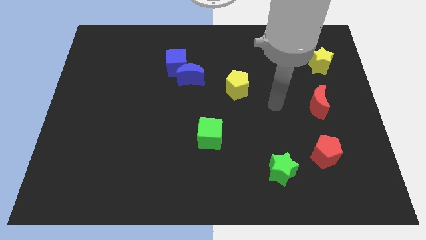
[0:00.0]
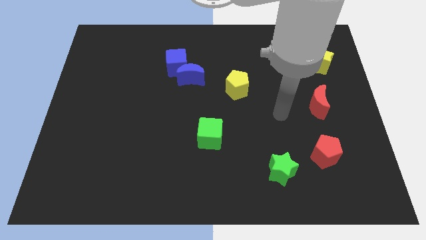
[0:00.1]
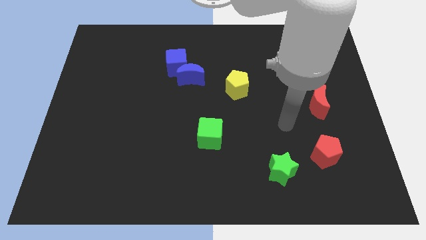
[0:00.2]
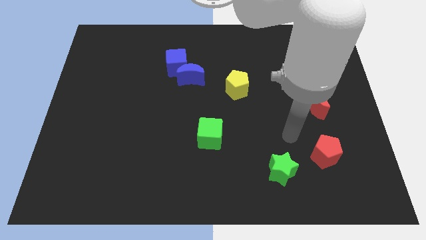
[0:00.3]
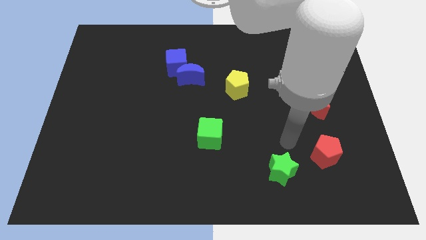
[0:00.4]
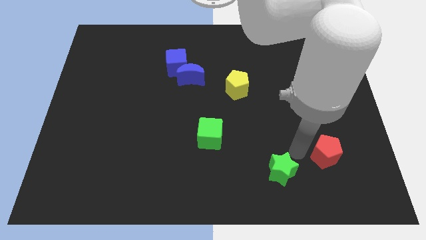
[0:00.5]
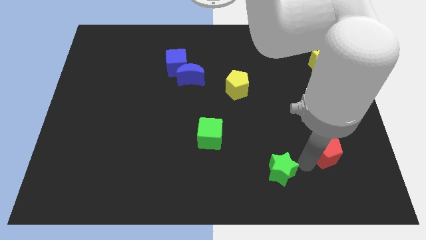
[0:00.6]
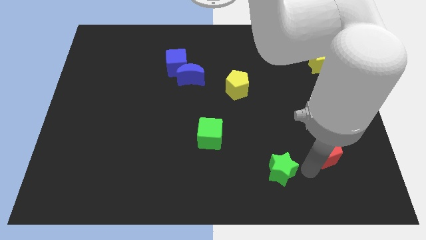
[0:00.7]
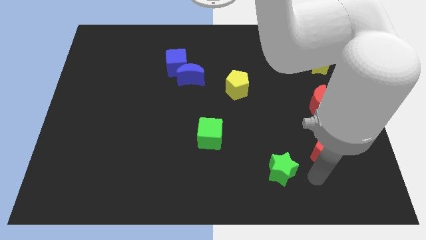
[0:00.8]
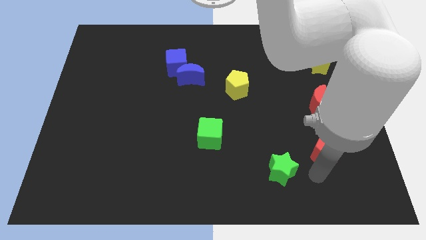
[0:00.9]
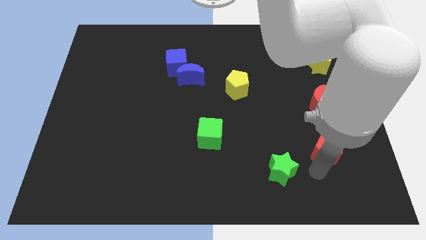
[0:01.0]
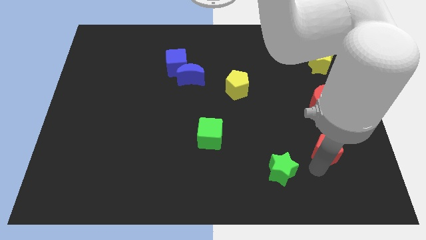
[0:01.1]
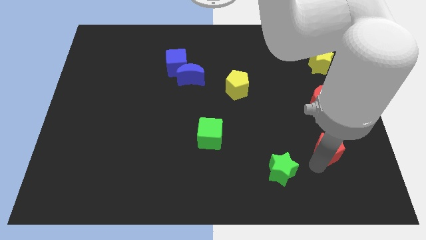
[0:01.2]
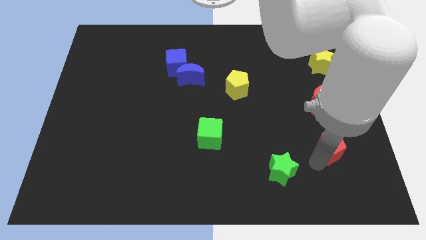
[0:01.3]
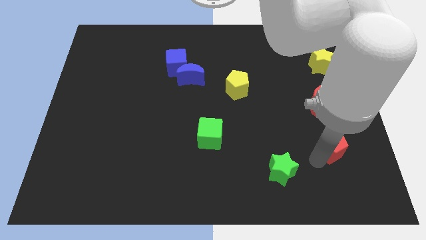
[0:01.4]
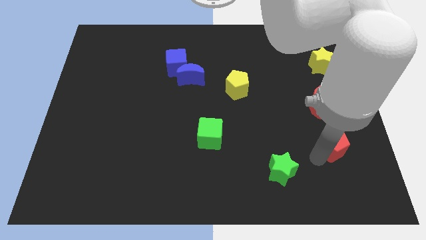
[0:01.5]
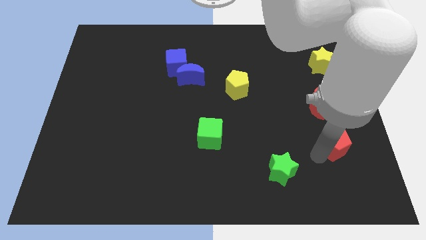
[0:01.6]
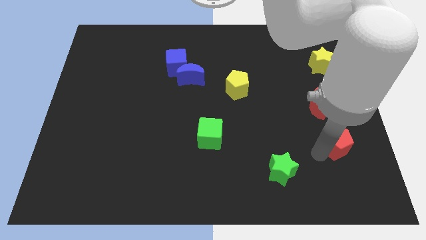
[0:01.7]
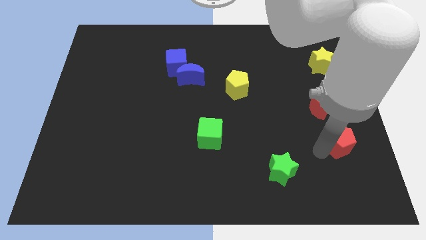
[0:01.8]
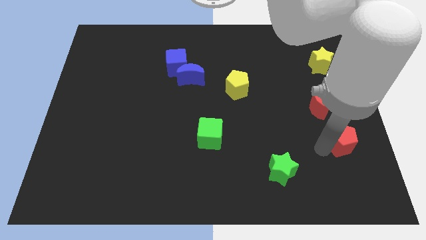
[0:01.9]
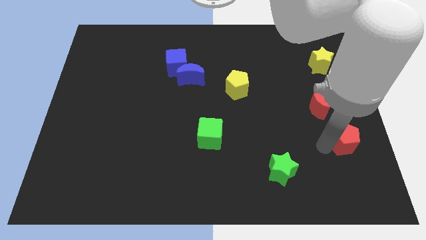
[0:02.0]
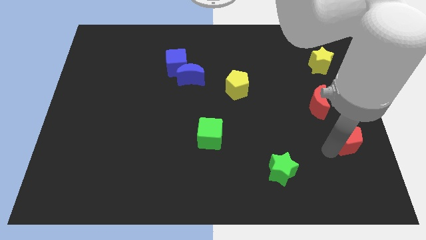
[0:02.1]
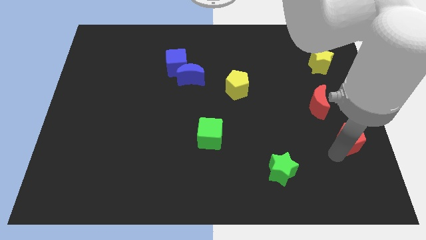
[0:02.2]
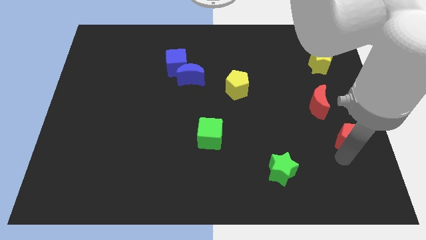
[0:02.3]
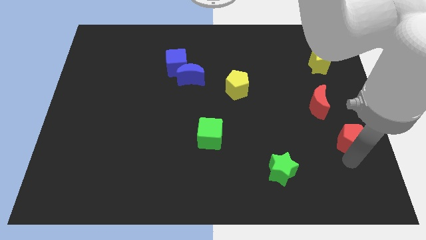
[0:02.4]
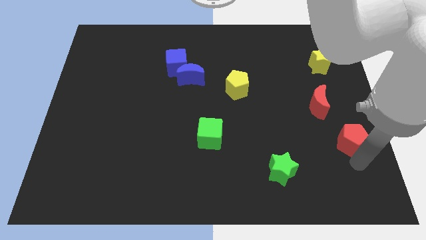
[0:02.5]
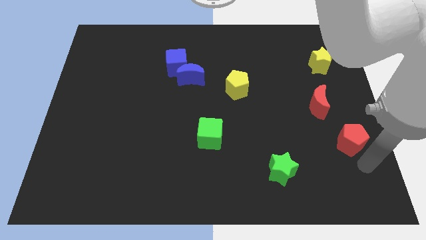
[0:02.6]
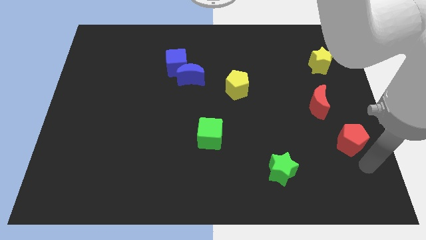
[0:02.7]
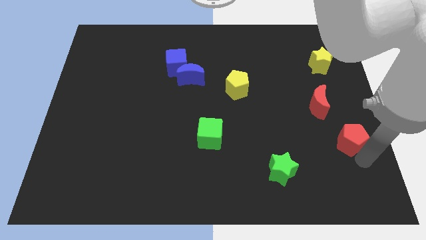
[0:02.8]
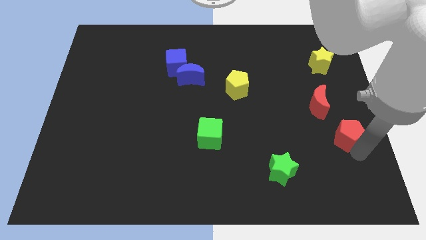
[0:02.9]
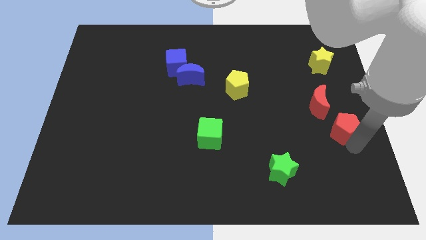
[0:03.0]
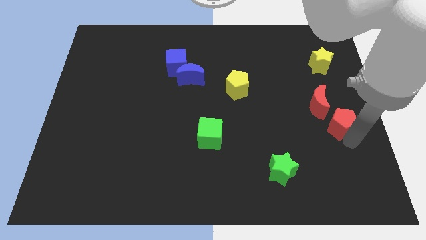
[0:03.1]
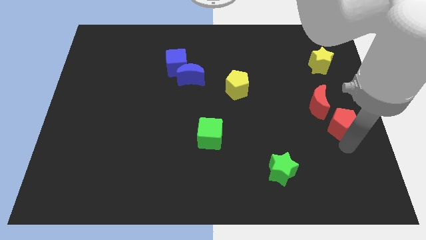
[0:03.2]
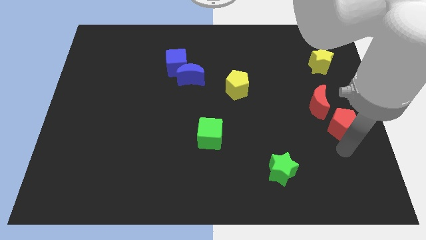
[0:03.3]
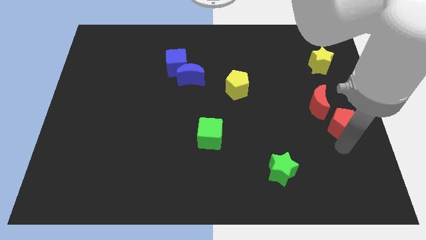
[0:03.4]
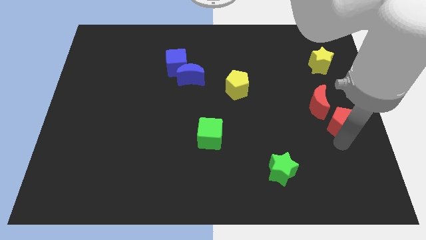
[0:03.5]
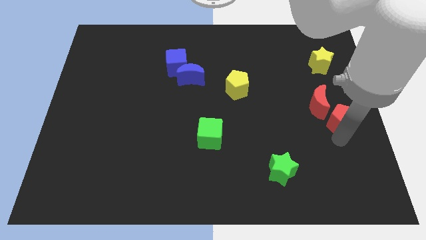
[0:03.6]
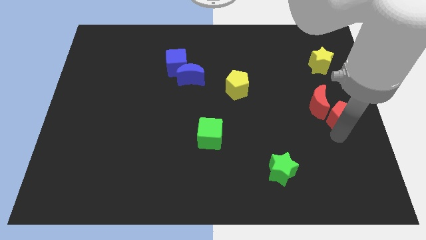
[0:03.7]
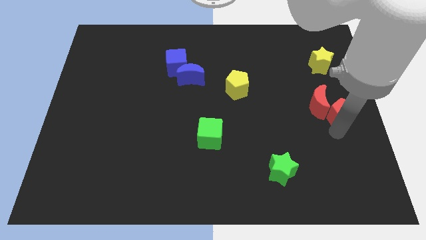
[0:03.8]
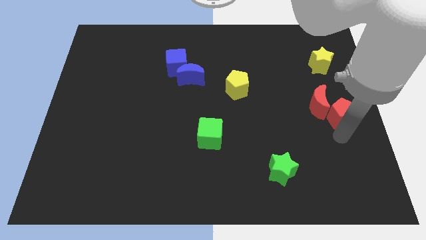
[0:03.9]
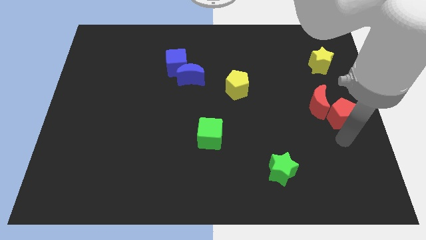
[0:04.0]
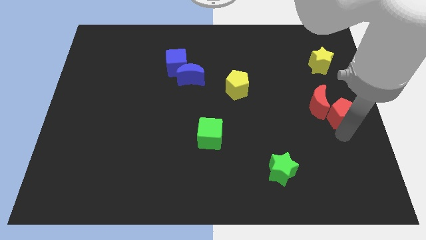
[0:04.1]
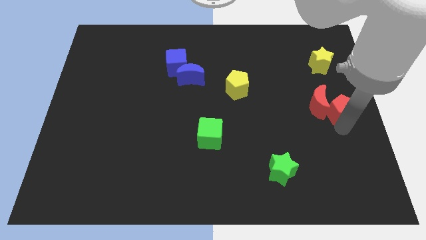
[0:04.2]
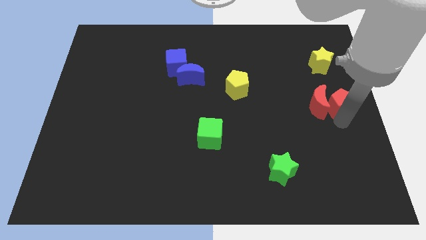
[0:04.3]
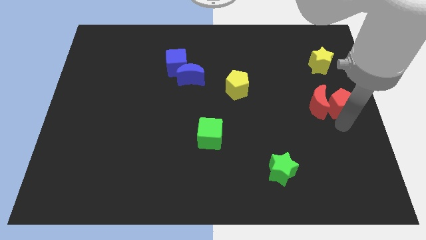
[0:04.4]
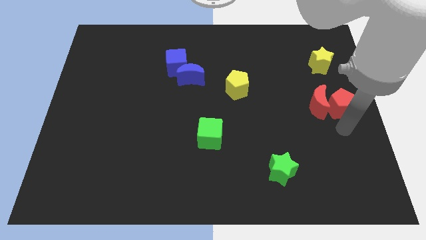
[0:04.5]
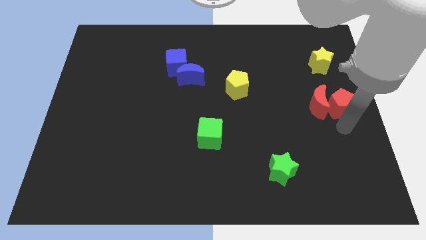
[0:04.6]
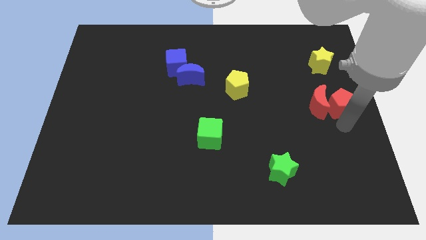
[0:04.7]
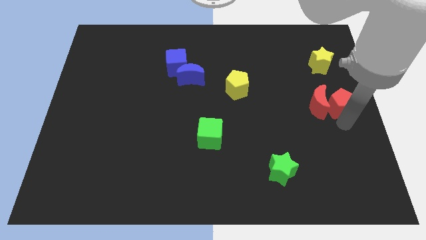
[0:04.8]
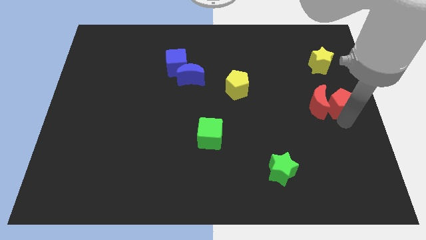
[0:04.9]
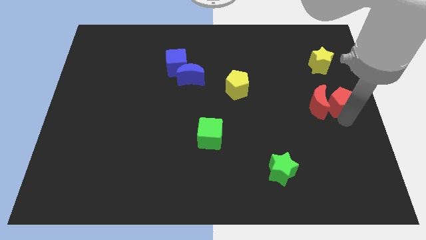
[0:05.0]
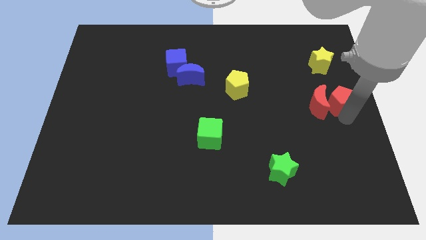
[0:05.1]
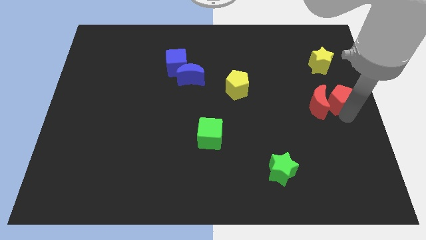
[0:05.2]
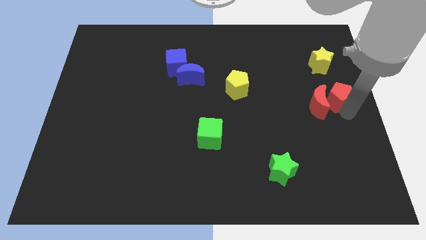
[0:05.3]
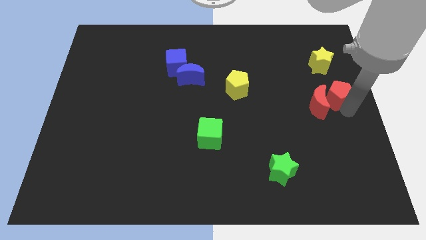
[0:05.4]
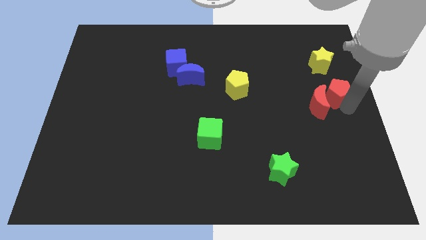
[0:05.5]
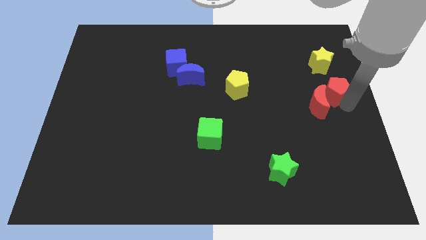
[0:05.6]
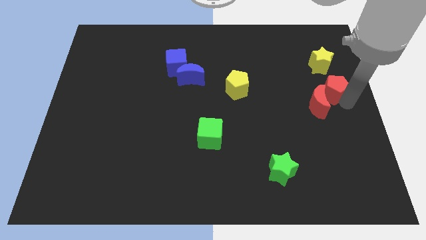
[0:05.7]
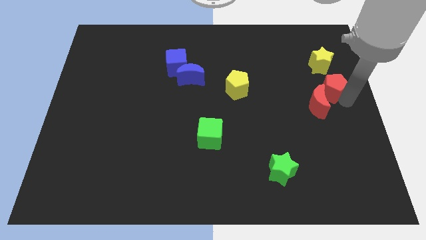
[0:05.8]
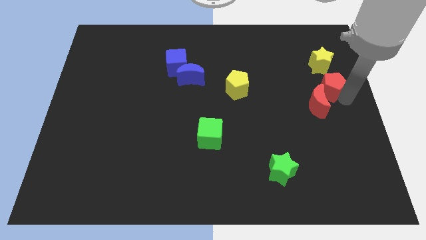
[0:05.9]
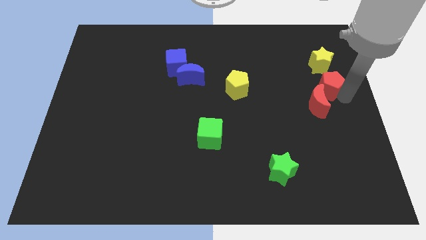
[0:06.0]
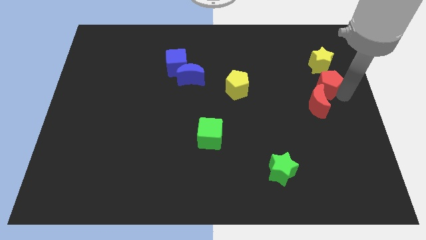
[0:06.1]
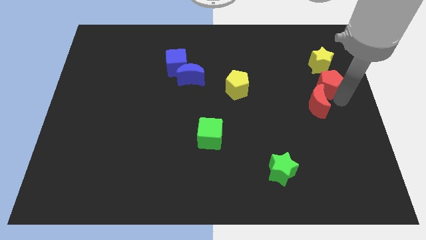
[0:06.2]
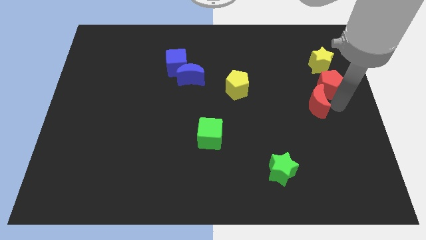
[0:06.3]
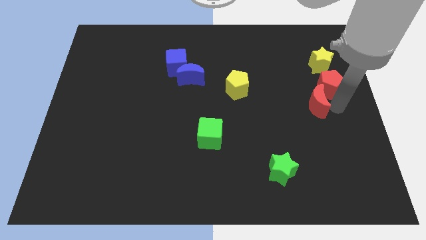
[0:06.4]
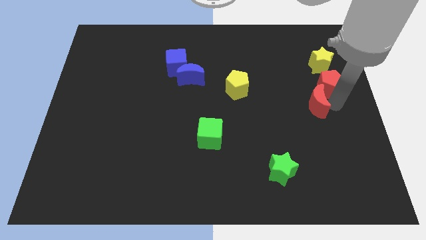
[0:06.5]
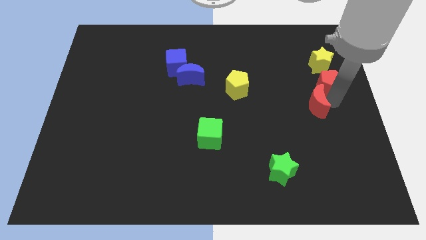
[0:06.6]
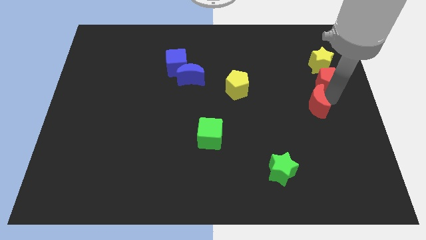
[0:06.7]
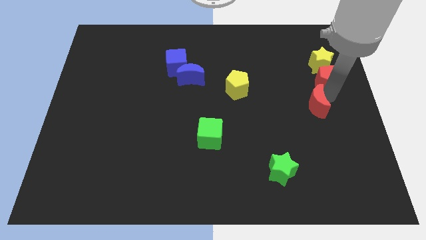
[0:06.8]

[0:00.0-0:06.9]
push the red pentagon towards the yellow star
